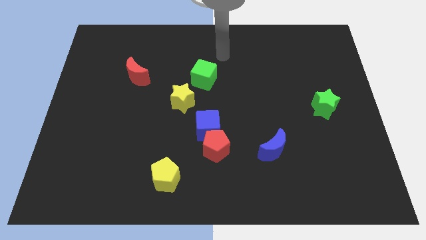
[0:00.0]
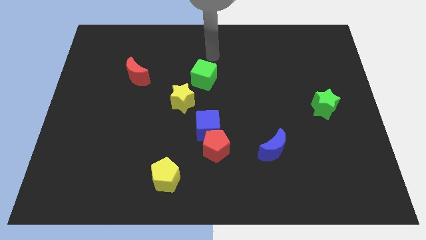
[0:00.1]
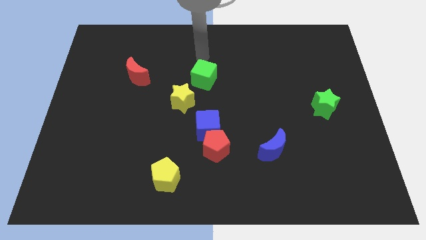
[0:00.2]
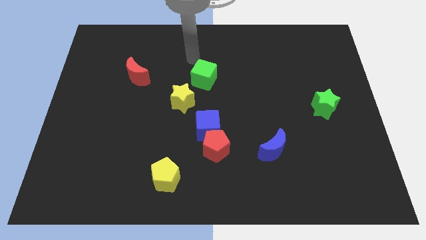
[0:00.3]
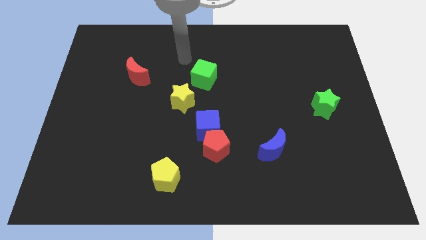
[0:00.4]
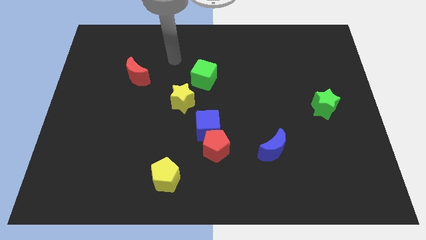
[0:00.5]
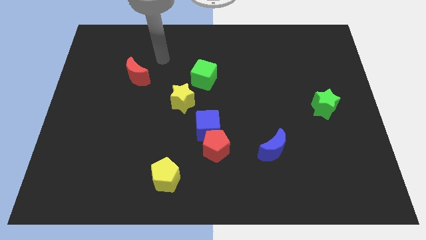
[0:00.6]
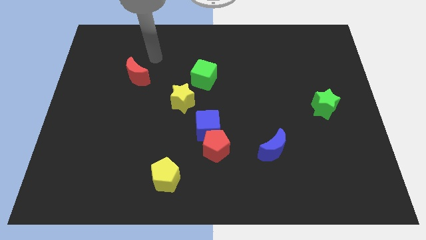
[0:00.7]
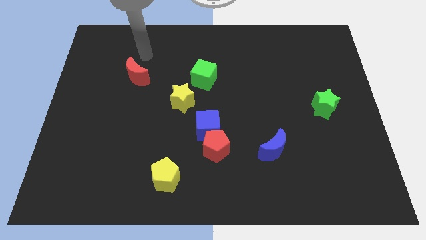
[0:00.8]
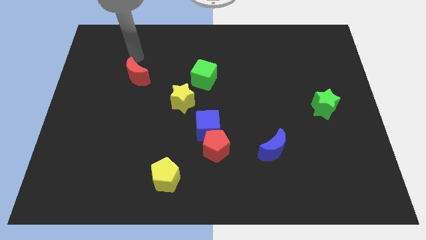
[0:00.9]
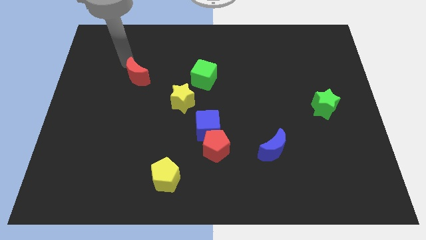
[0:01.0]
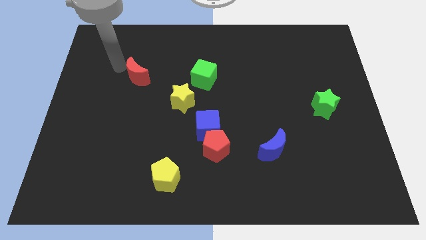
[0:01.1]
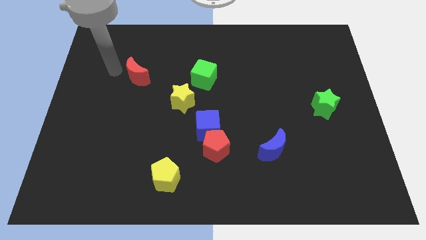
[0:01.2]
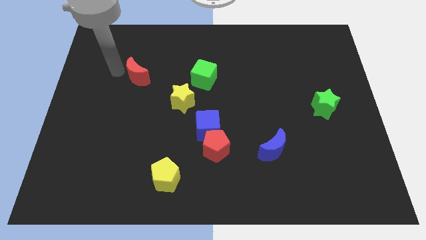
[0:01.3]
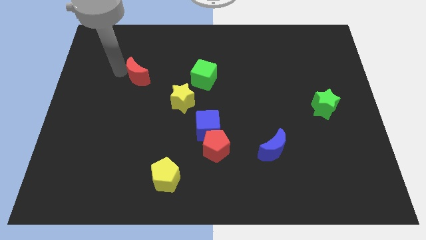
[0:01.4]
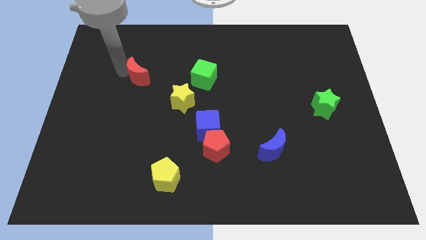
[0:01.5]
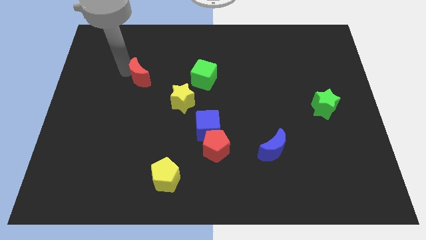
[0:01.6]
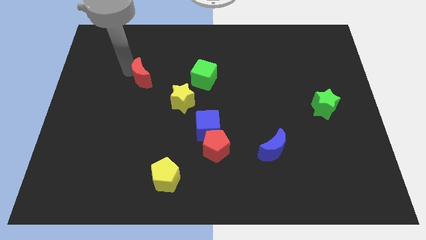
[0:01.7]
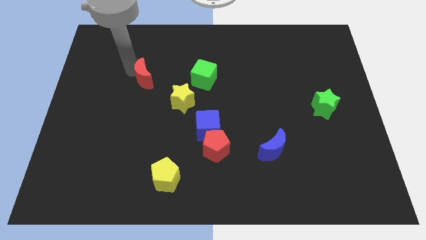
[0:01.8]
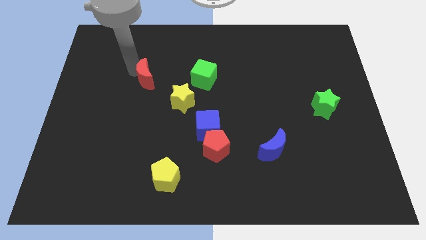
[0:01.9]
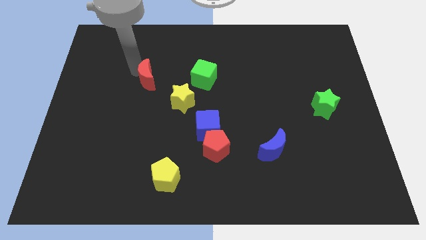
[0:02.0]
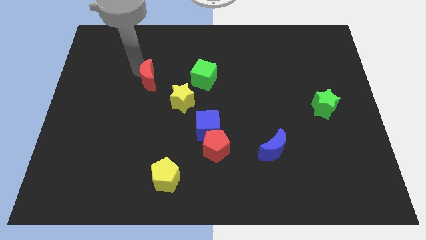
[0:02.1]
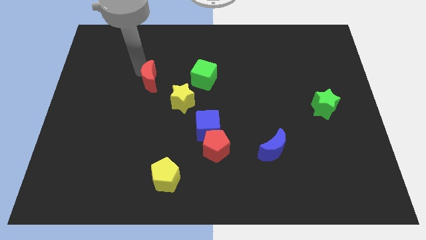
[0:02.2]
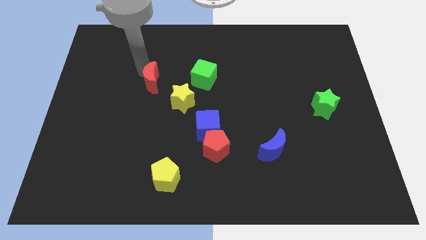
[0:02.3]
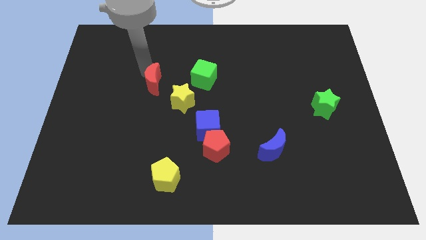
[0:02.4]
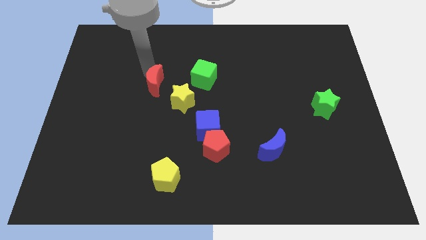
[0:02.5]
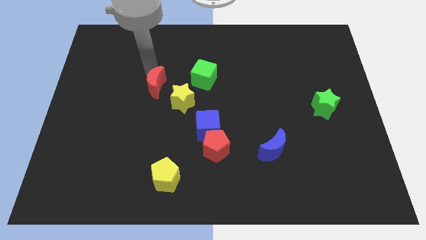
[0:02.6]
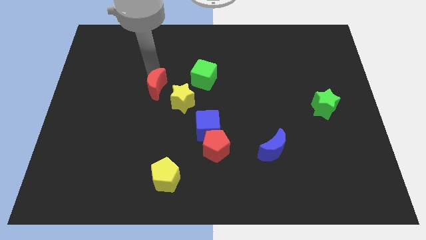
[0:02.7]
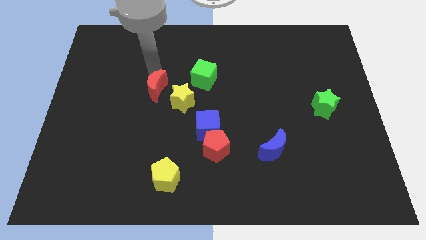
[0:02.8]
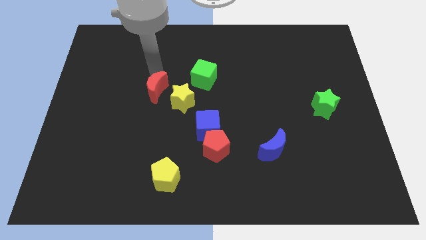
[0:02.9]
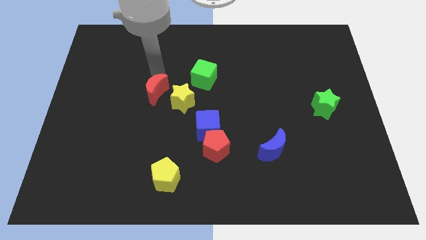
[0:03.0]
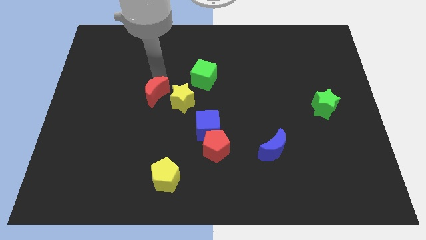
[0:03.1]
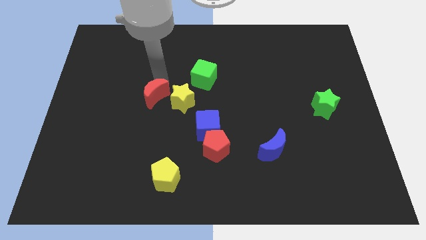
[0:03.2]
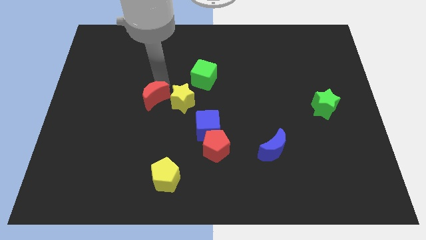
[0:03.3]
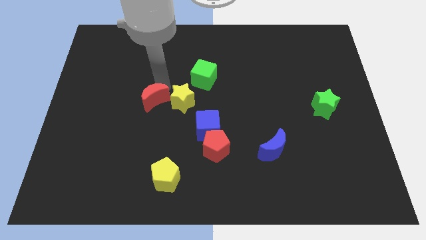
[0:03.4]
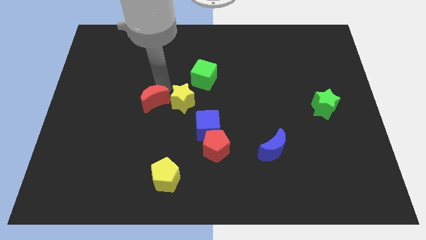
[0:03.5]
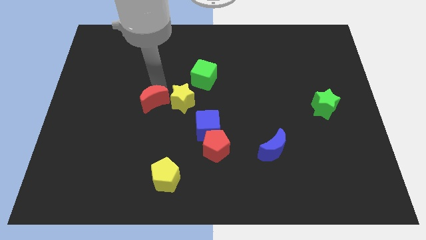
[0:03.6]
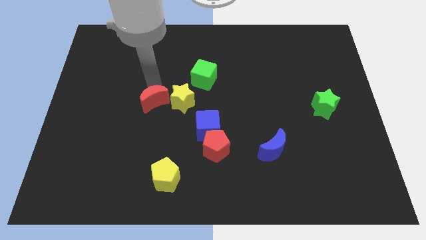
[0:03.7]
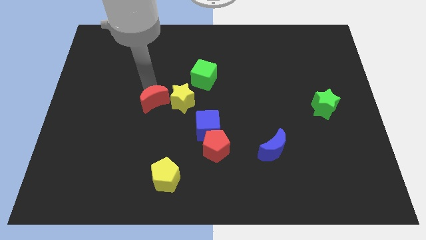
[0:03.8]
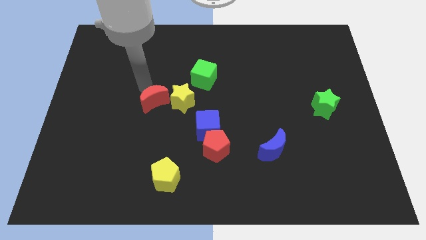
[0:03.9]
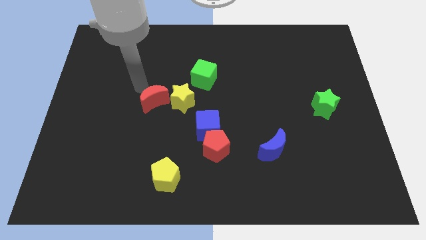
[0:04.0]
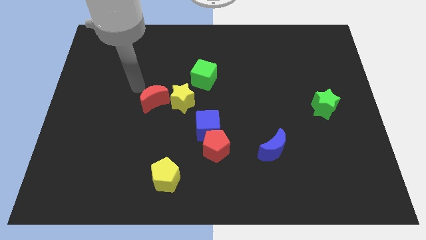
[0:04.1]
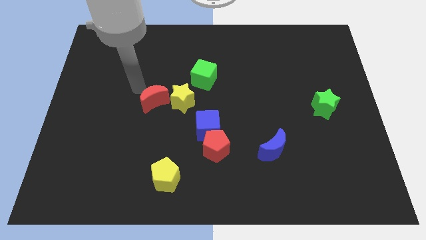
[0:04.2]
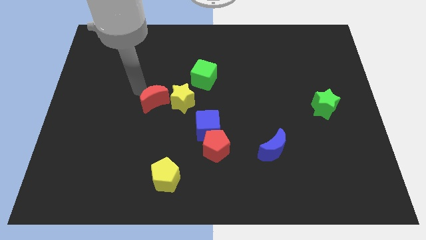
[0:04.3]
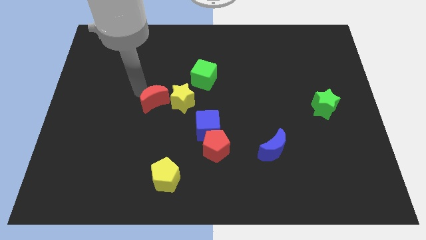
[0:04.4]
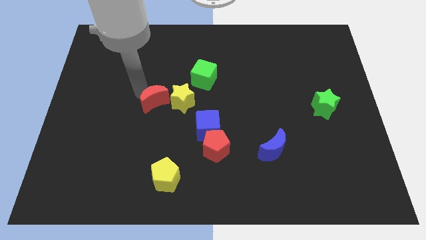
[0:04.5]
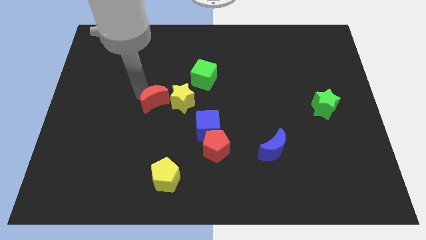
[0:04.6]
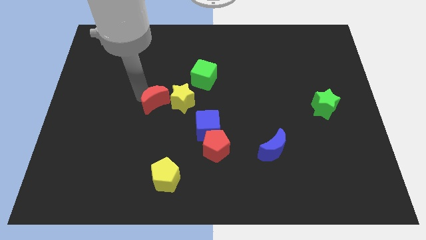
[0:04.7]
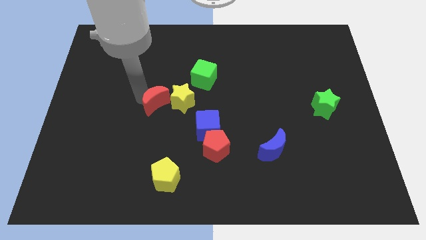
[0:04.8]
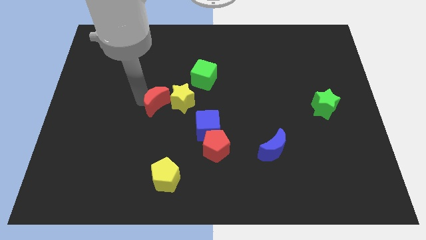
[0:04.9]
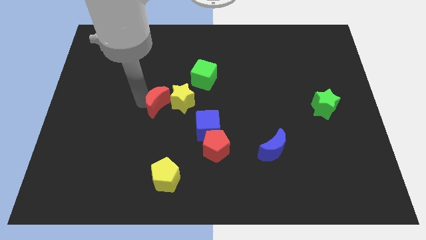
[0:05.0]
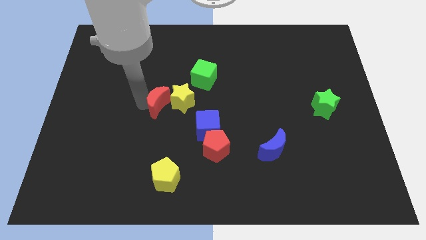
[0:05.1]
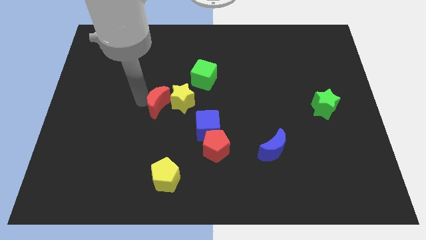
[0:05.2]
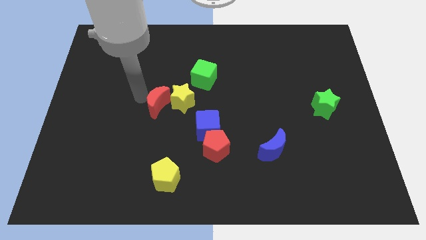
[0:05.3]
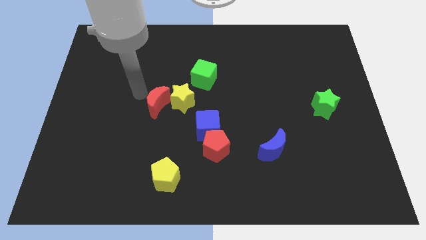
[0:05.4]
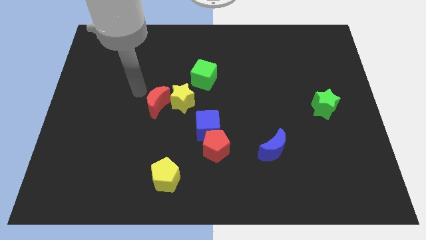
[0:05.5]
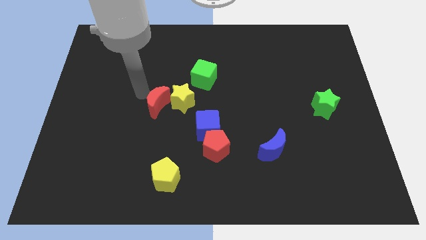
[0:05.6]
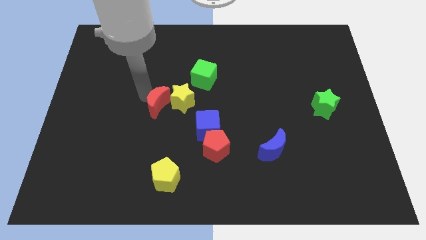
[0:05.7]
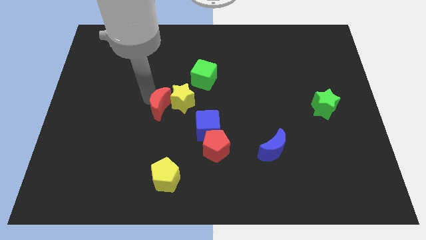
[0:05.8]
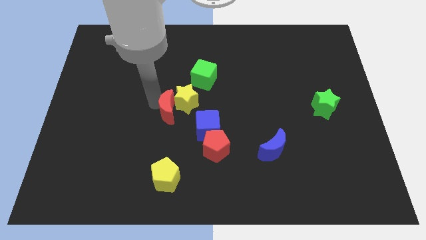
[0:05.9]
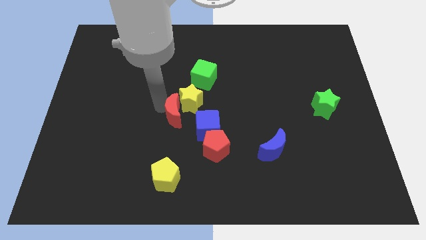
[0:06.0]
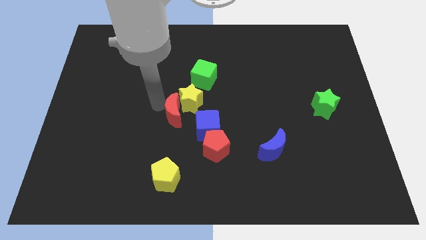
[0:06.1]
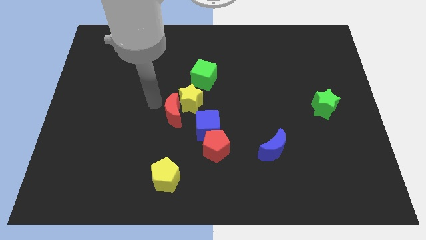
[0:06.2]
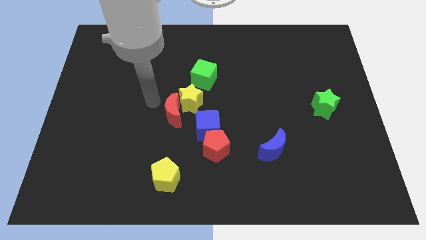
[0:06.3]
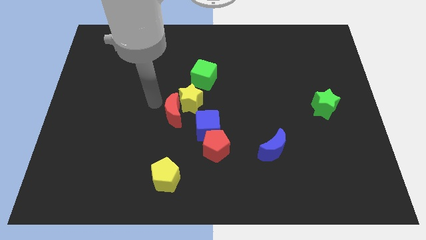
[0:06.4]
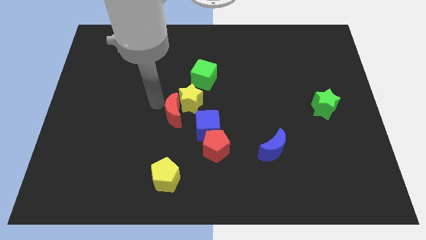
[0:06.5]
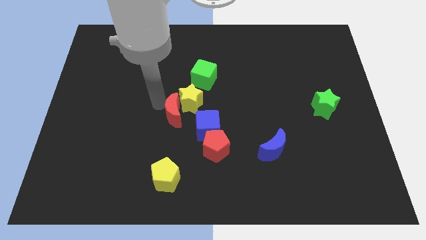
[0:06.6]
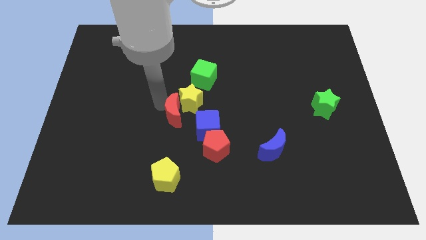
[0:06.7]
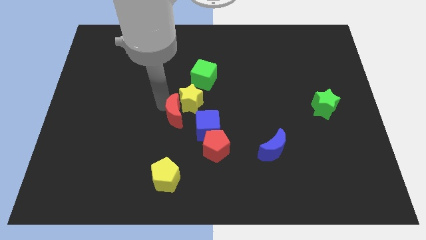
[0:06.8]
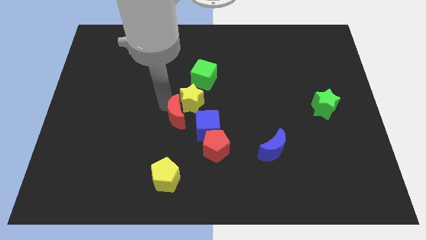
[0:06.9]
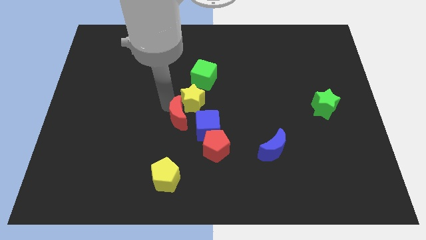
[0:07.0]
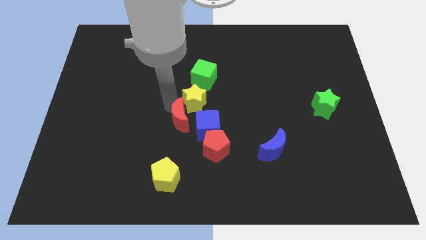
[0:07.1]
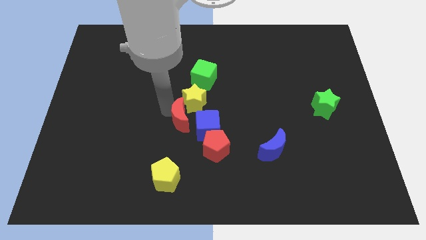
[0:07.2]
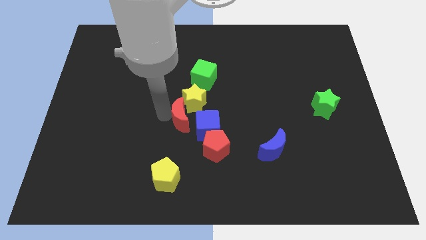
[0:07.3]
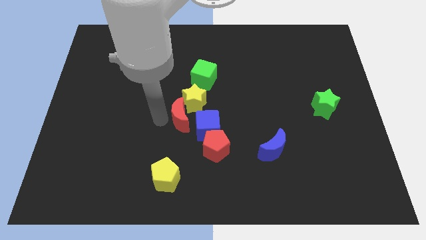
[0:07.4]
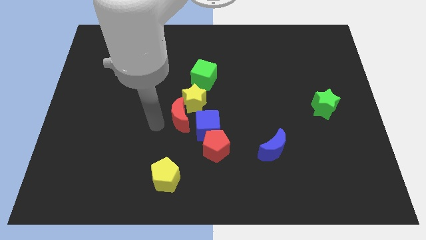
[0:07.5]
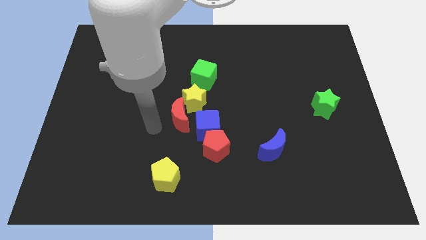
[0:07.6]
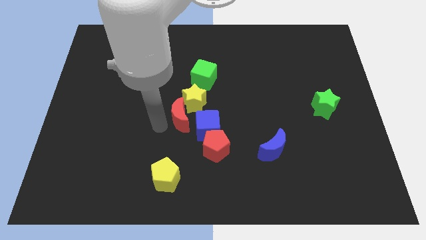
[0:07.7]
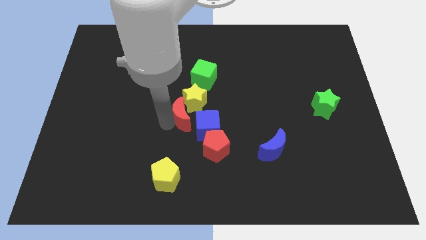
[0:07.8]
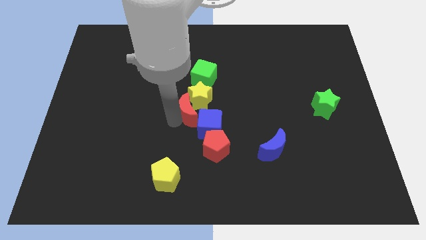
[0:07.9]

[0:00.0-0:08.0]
put the red moon to the bottom of the green cube
